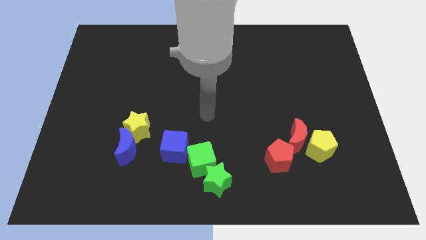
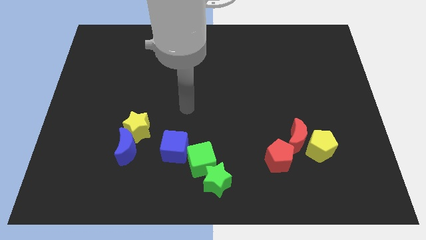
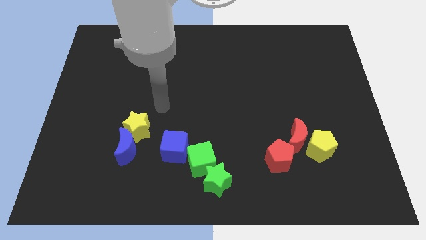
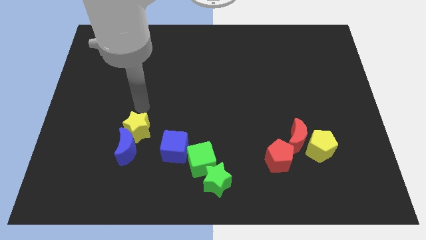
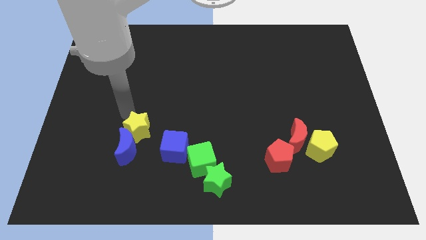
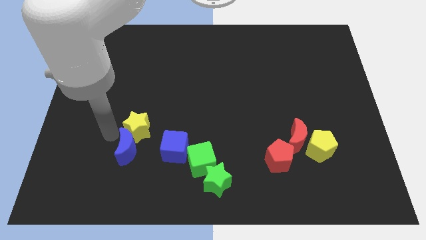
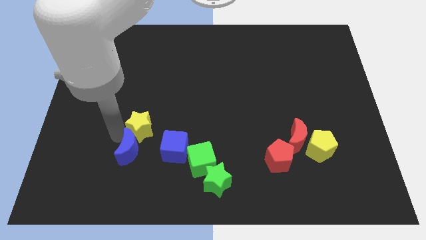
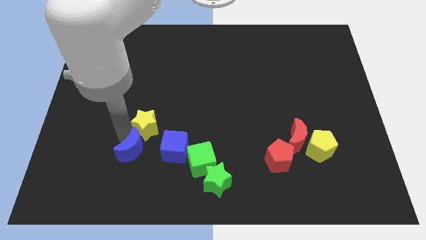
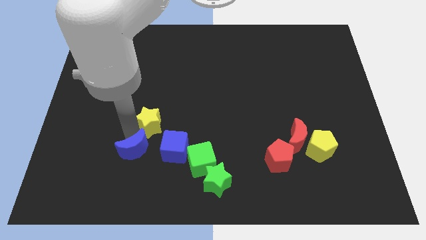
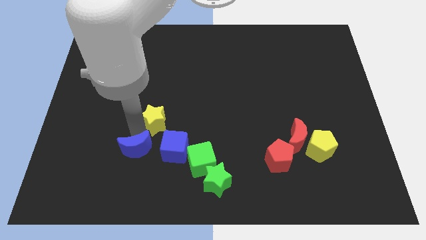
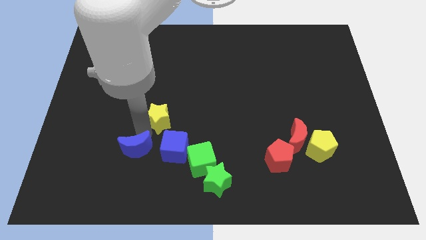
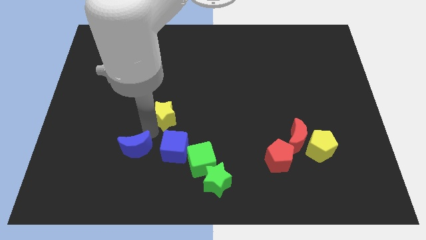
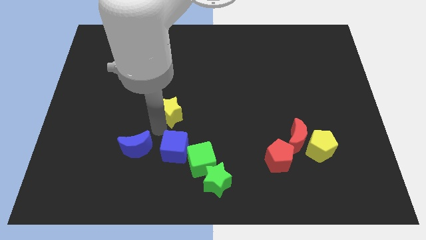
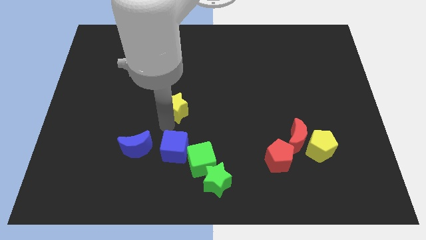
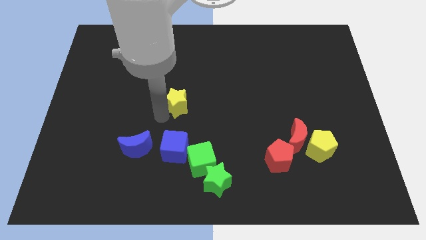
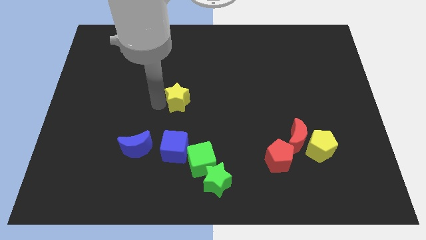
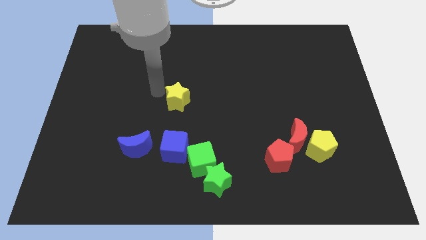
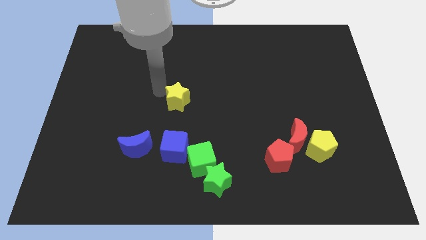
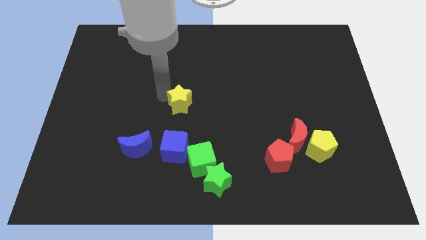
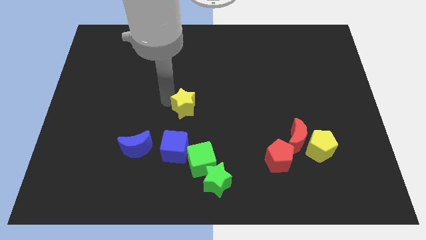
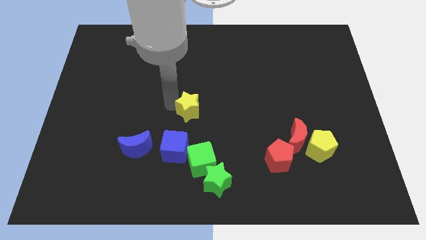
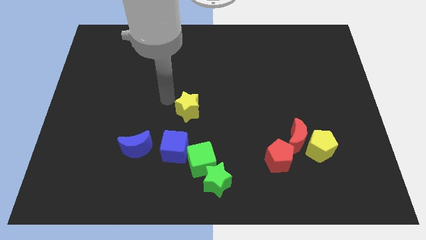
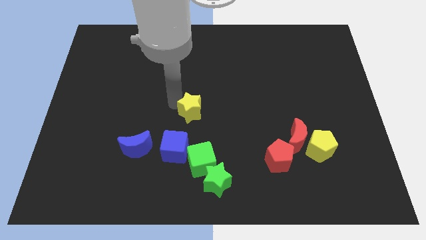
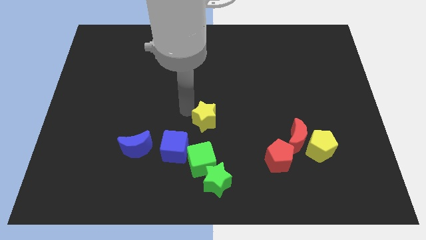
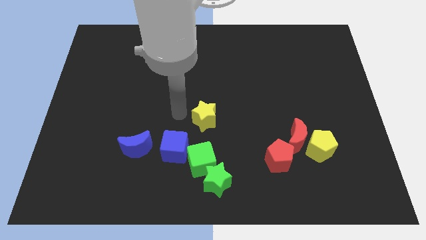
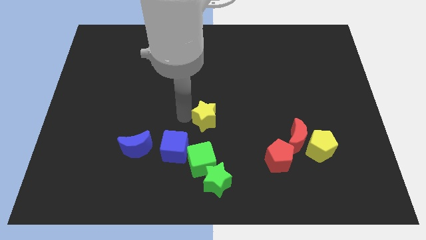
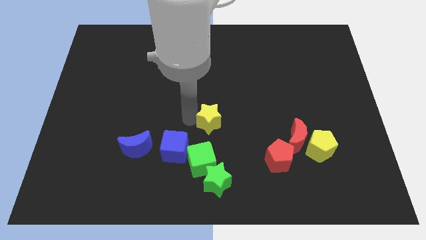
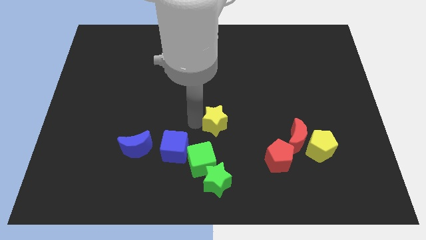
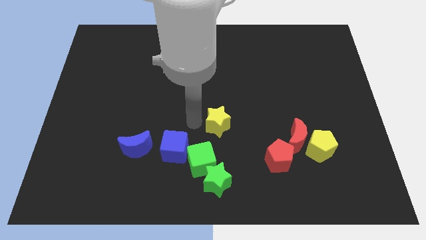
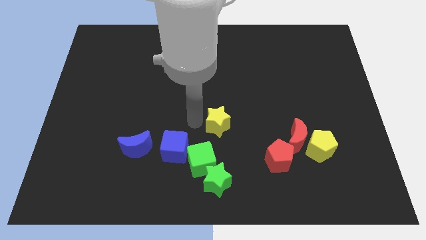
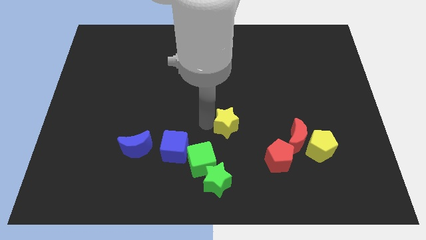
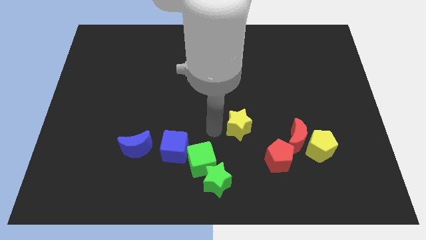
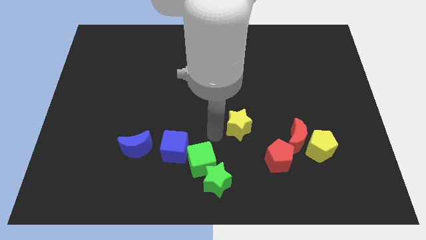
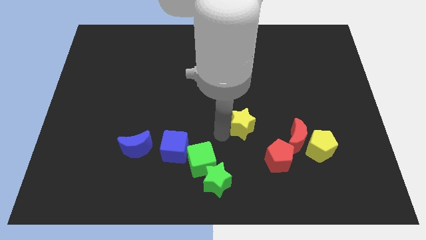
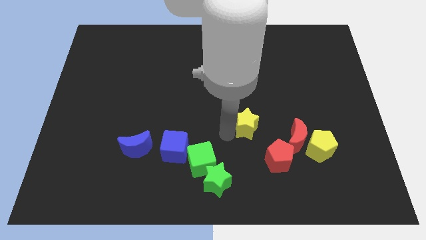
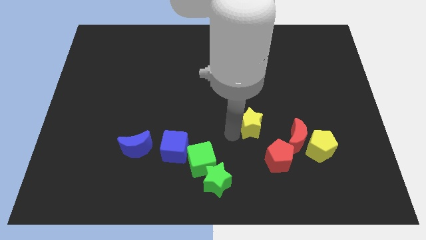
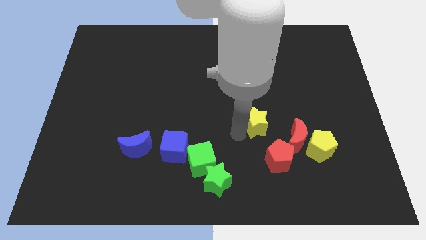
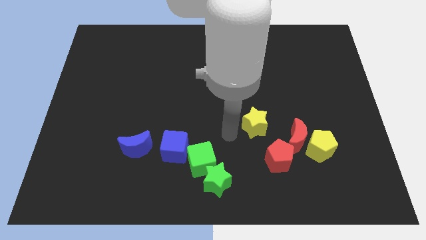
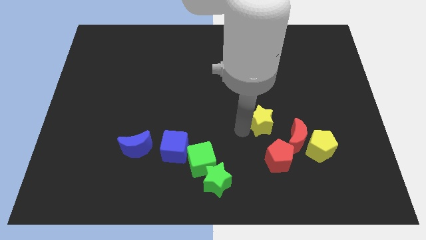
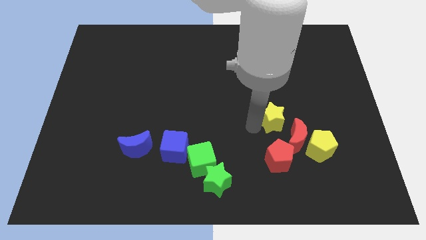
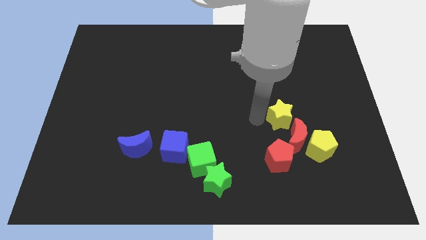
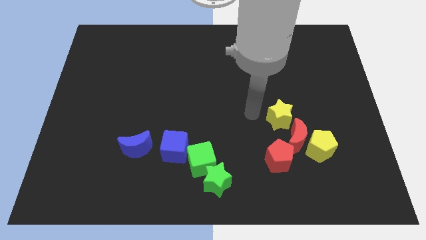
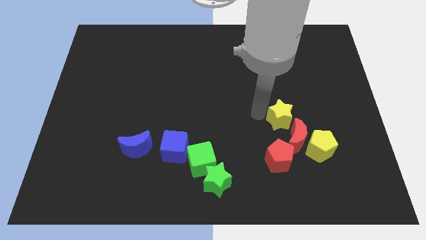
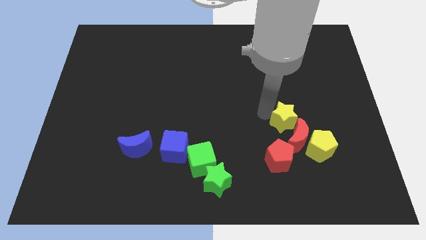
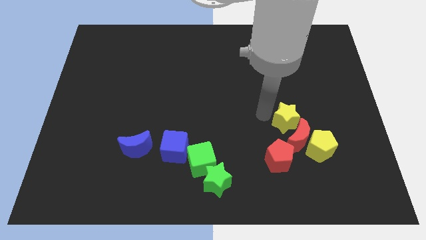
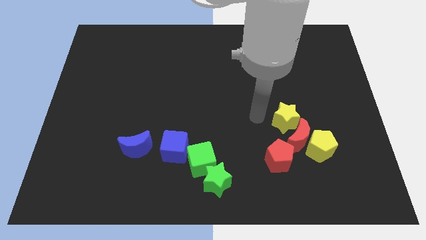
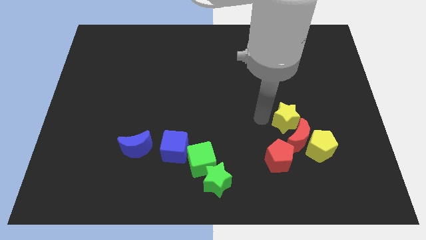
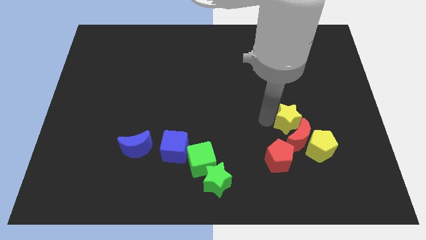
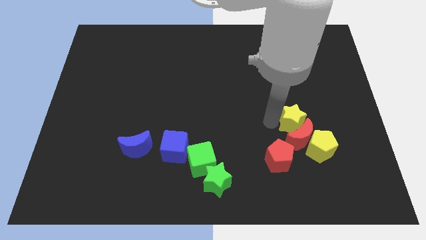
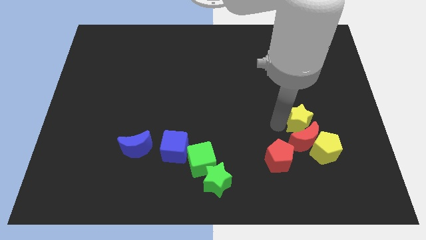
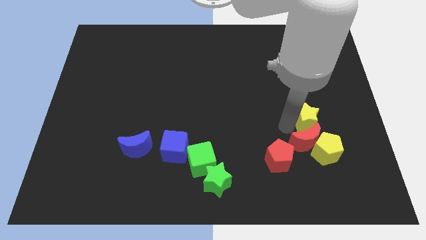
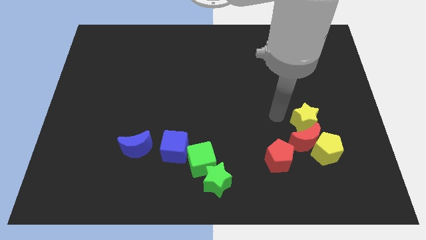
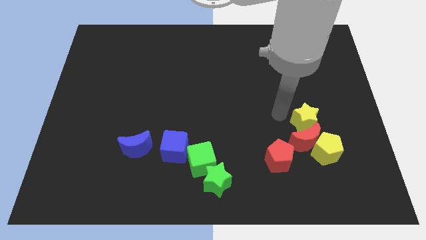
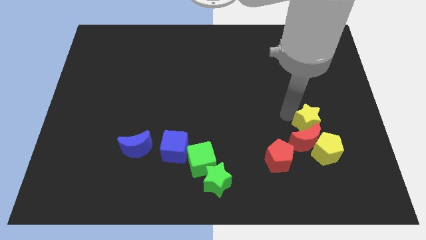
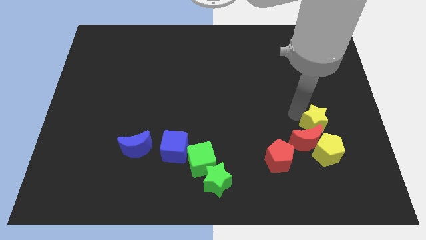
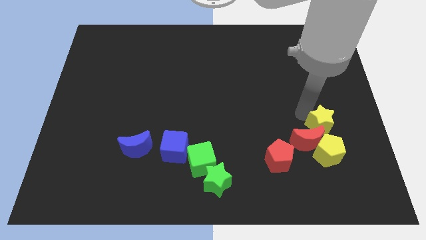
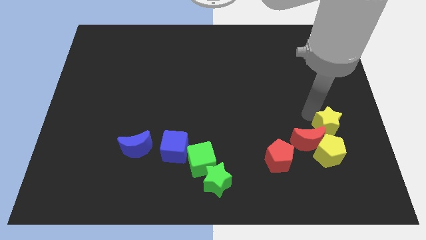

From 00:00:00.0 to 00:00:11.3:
put the yellow star diagonally up and to the right of the yellow pentagon

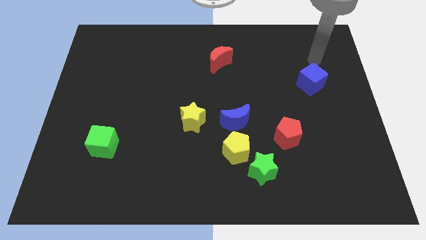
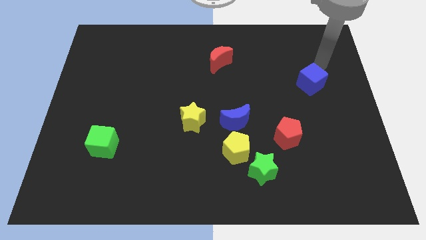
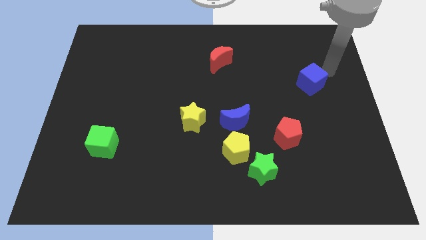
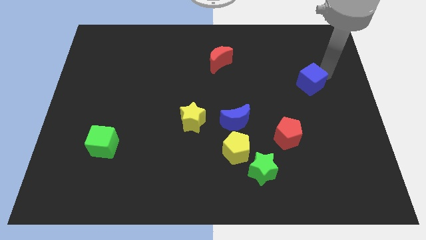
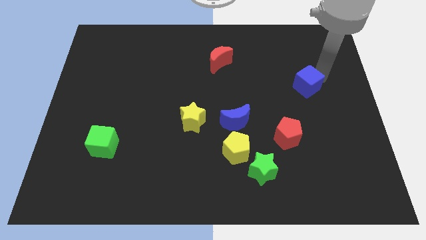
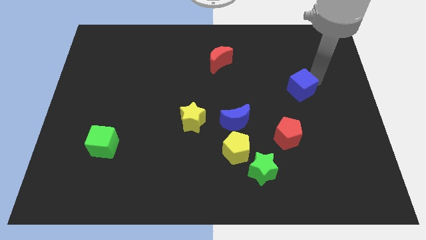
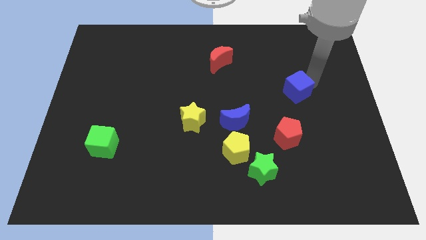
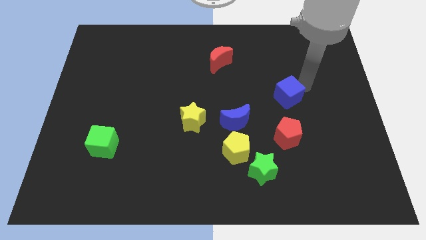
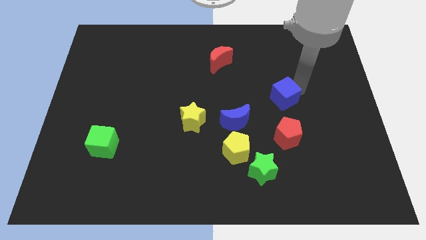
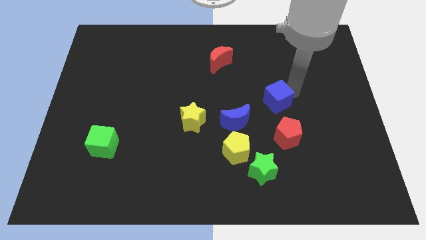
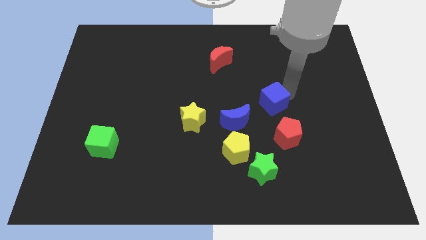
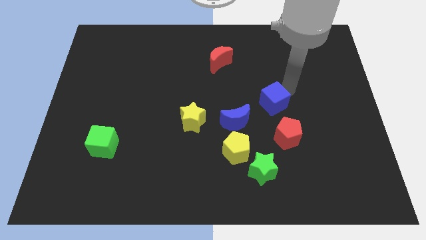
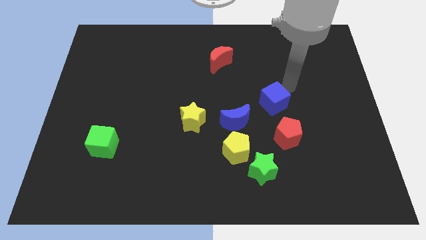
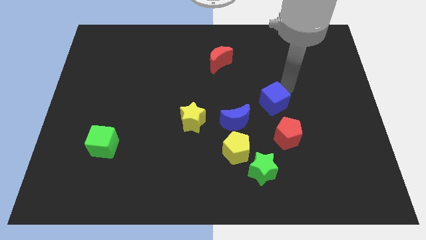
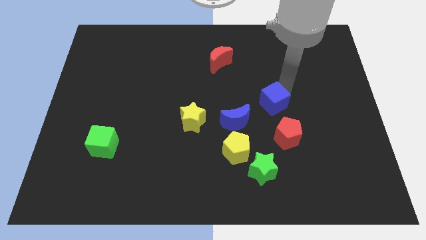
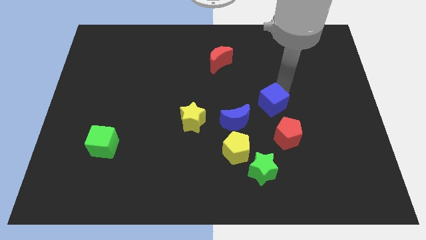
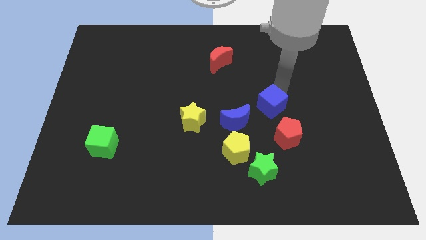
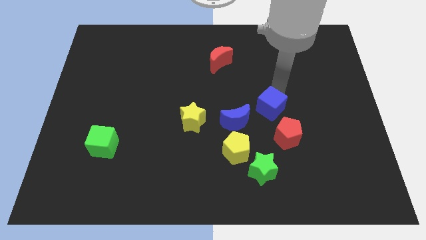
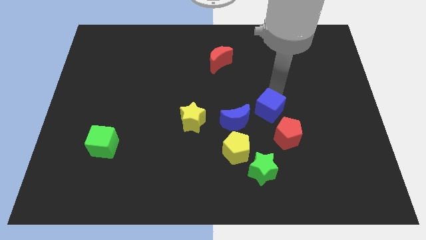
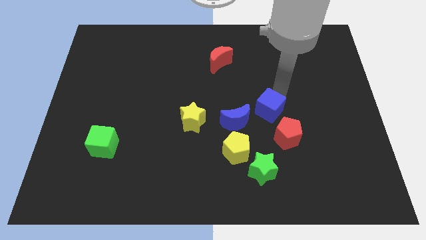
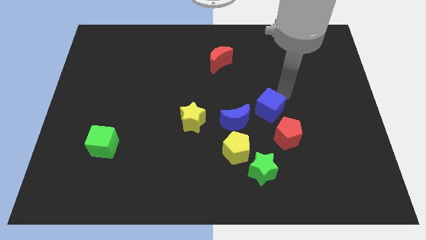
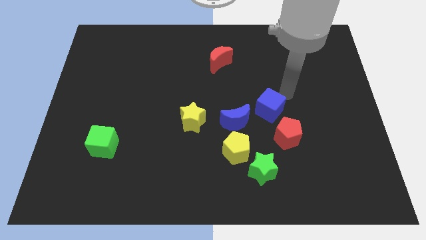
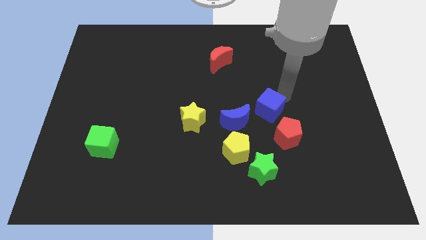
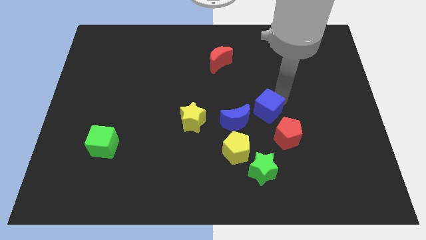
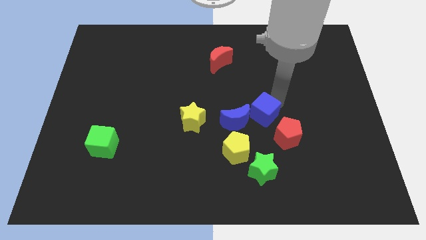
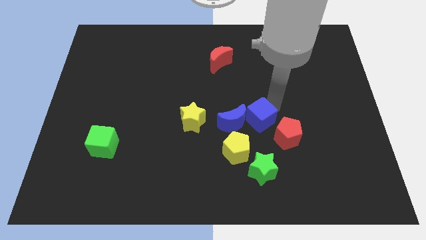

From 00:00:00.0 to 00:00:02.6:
slide the blue cube right of the yellow star
